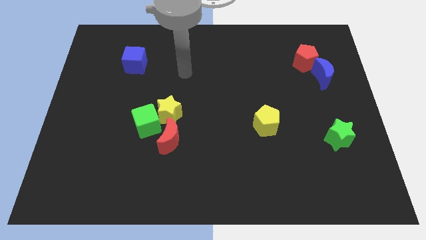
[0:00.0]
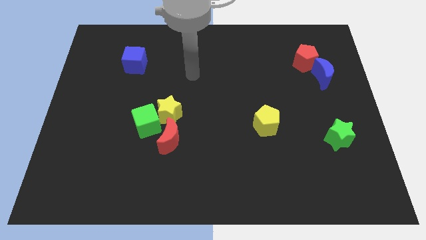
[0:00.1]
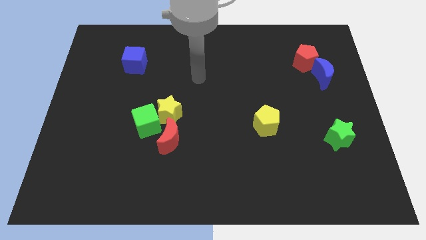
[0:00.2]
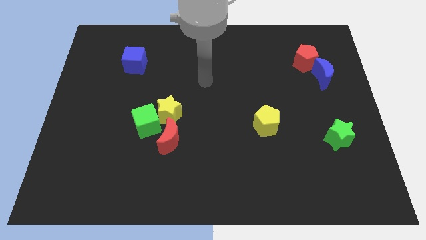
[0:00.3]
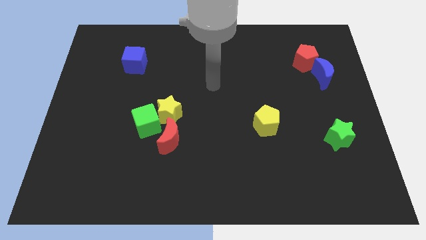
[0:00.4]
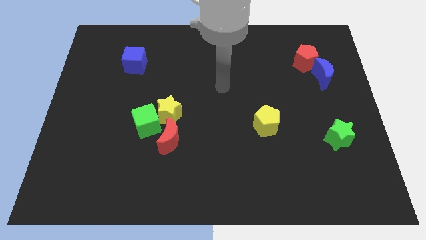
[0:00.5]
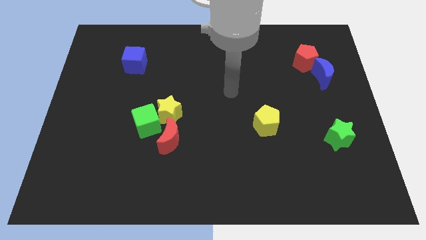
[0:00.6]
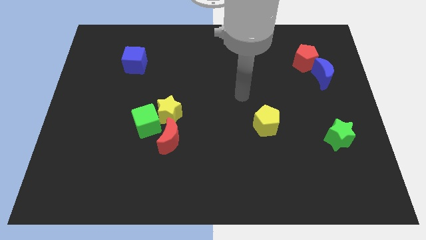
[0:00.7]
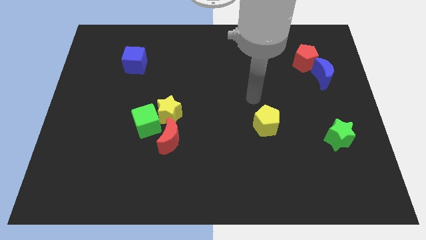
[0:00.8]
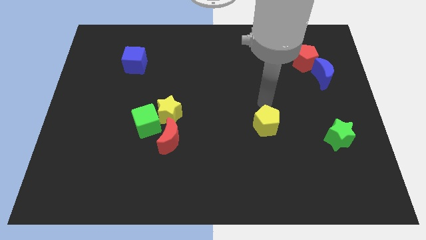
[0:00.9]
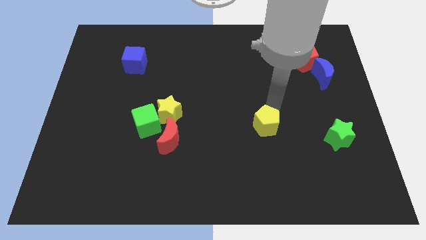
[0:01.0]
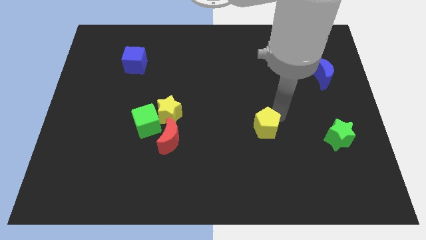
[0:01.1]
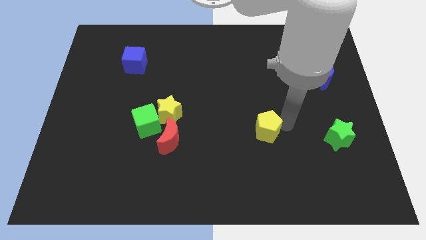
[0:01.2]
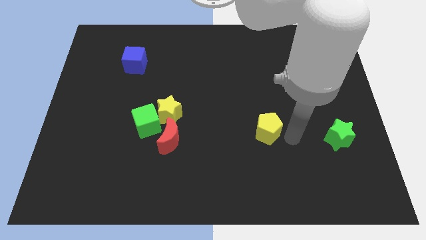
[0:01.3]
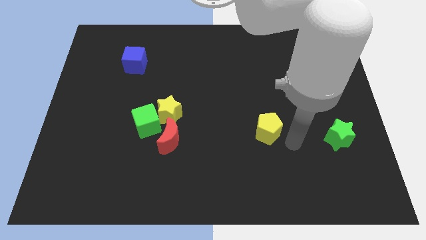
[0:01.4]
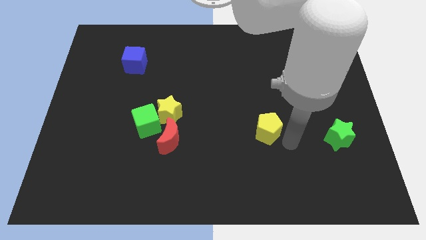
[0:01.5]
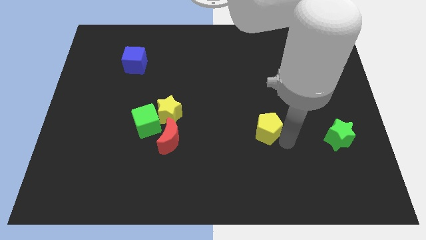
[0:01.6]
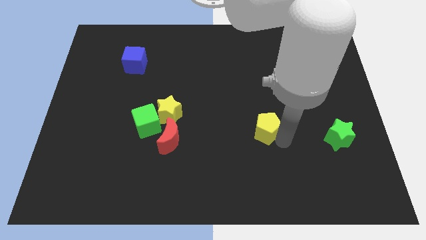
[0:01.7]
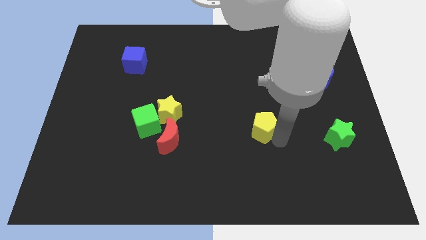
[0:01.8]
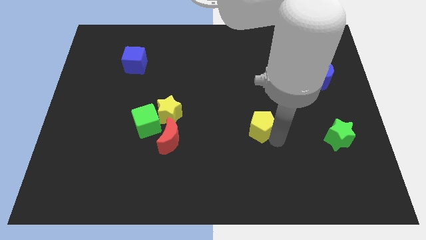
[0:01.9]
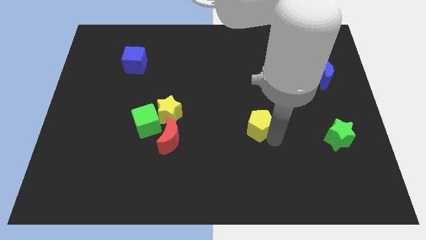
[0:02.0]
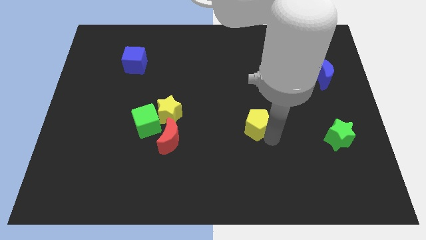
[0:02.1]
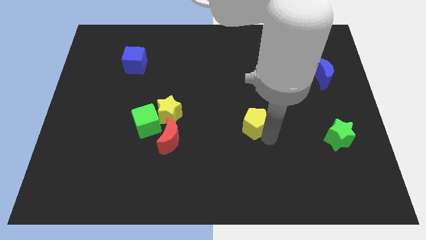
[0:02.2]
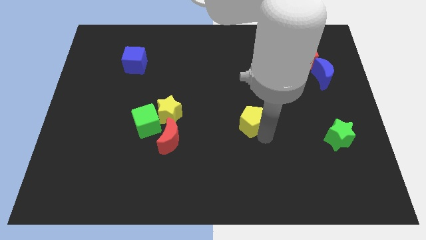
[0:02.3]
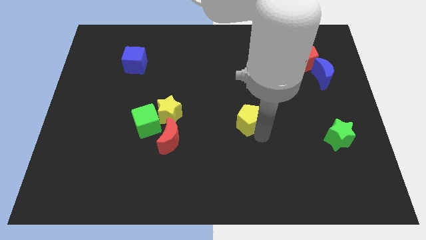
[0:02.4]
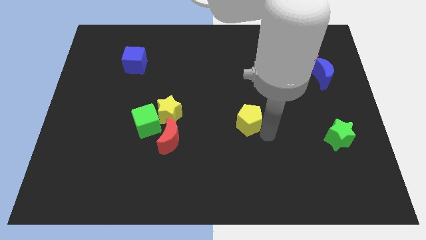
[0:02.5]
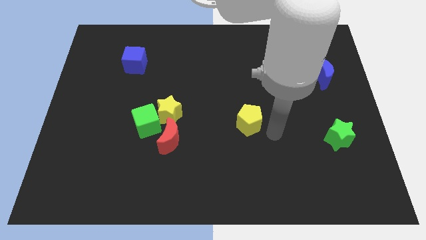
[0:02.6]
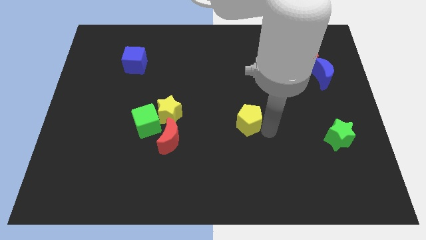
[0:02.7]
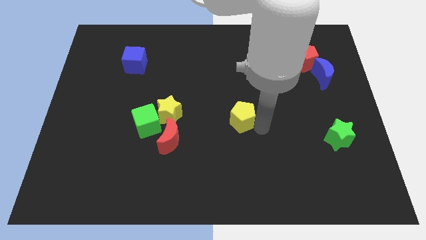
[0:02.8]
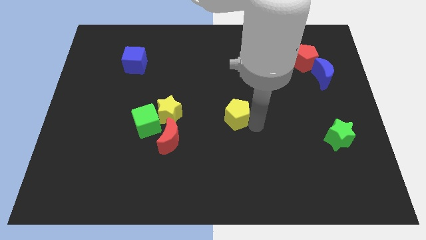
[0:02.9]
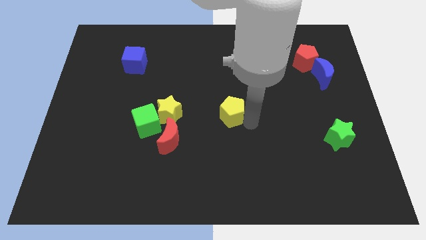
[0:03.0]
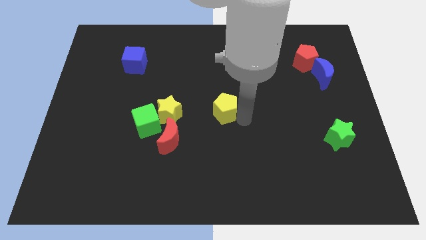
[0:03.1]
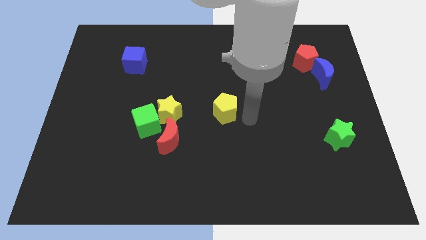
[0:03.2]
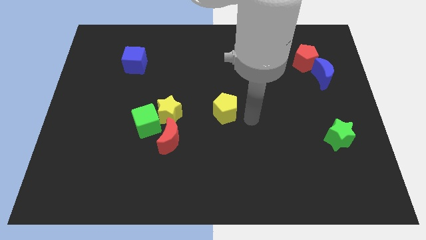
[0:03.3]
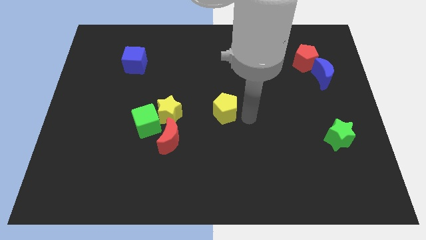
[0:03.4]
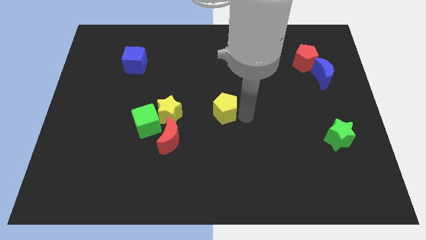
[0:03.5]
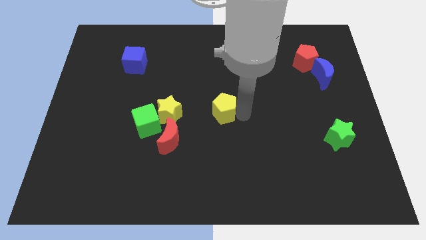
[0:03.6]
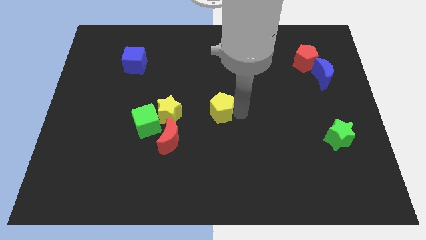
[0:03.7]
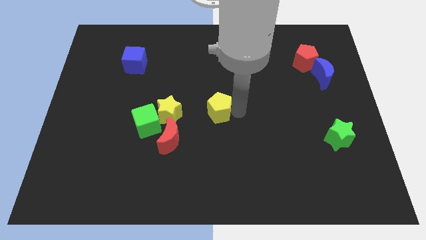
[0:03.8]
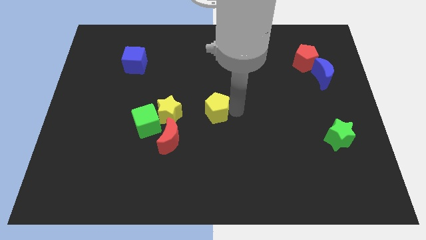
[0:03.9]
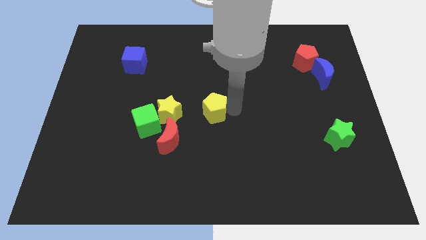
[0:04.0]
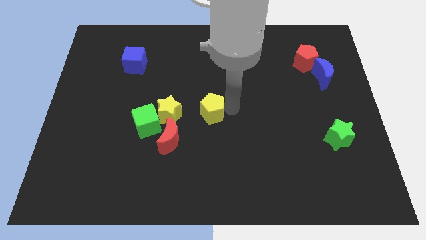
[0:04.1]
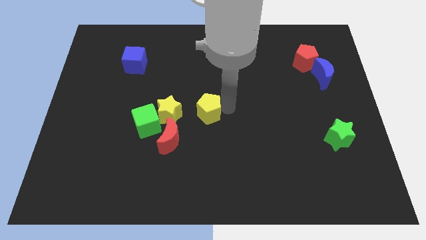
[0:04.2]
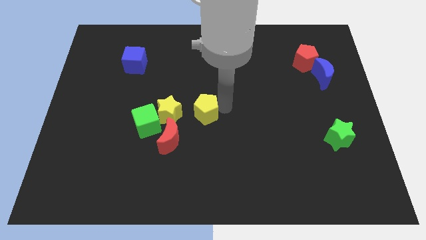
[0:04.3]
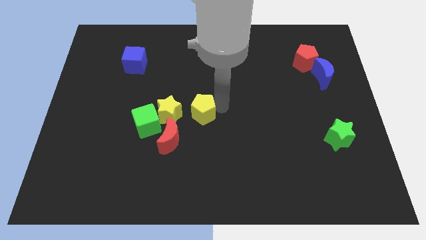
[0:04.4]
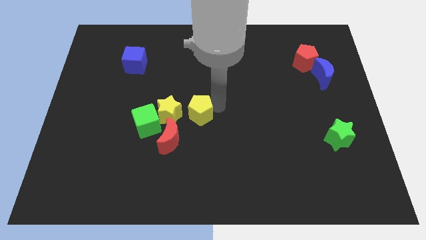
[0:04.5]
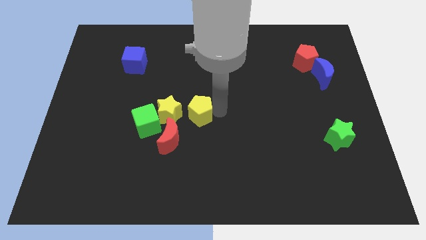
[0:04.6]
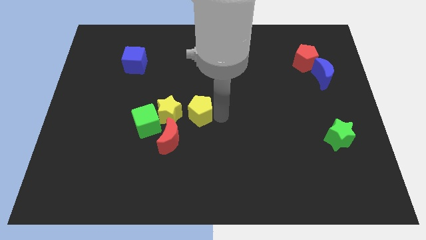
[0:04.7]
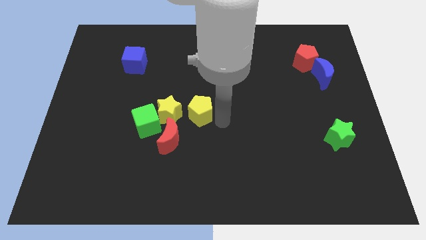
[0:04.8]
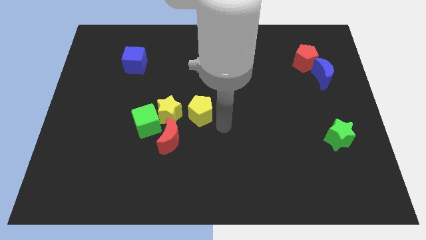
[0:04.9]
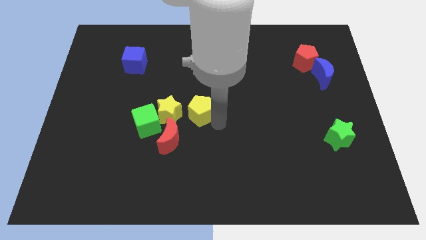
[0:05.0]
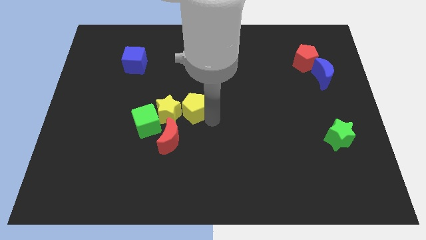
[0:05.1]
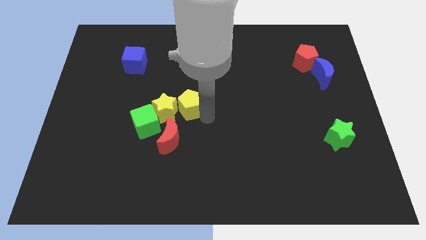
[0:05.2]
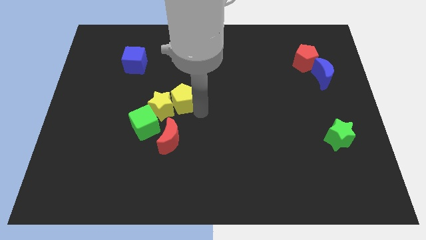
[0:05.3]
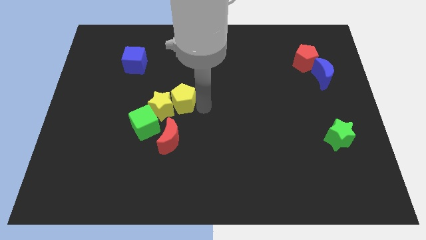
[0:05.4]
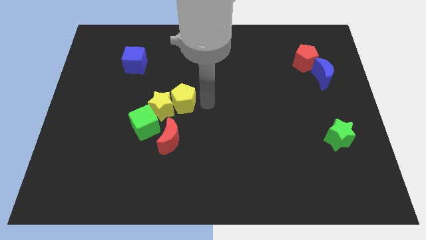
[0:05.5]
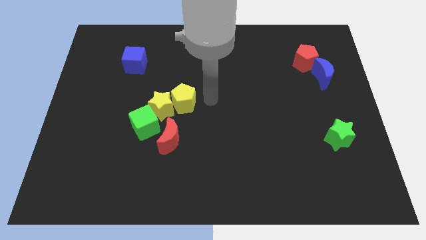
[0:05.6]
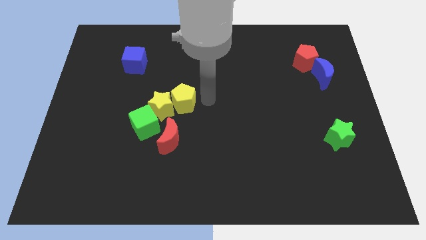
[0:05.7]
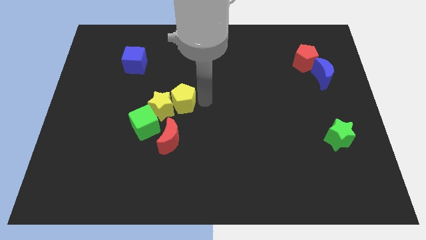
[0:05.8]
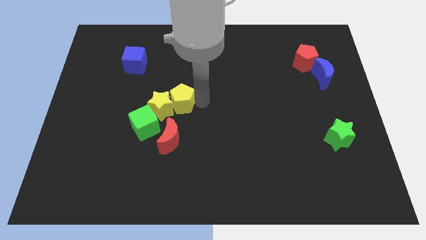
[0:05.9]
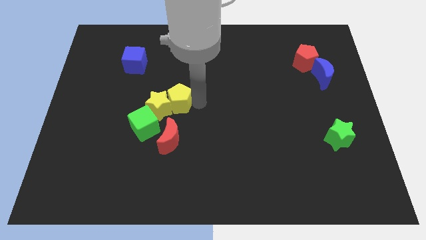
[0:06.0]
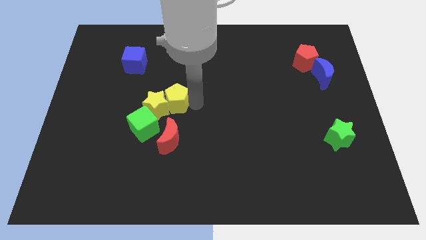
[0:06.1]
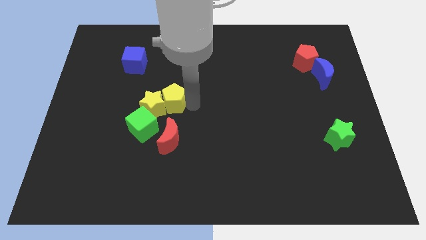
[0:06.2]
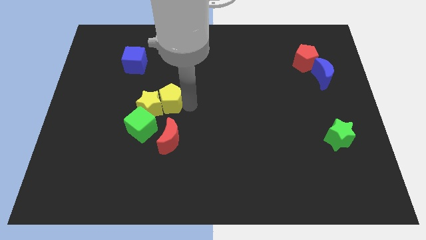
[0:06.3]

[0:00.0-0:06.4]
move the yellow pentagon to the left

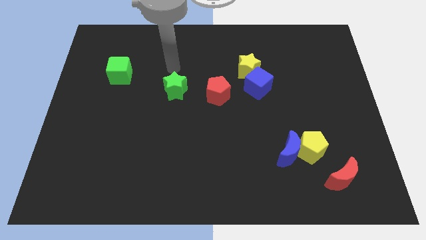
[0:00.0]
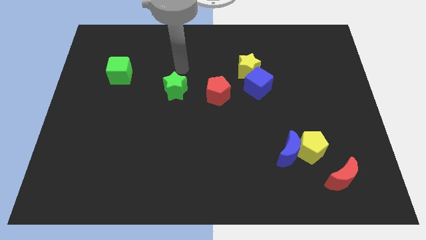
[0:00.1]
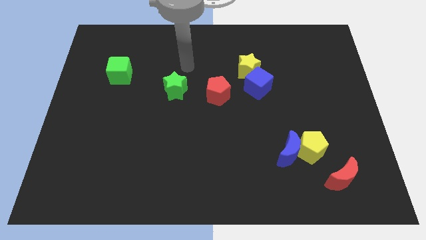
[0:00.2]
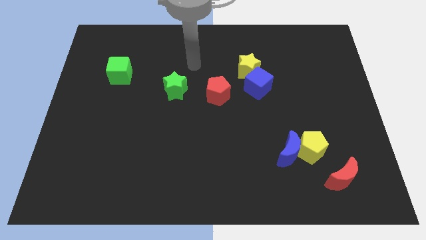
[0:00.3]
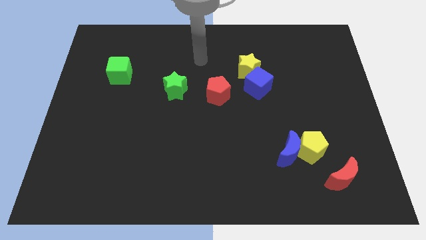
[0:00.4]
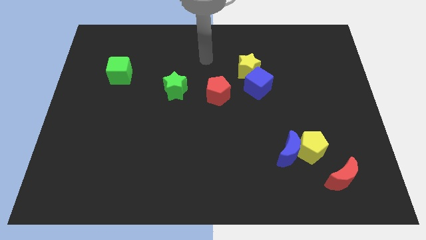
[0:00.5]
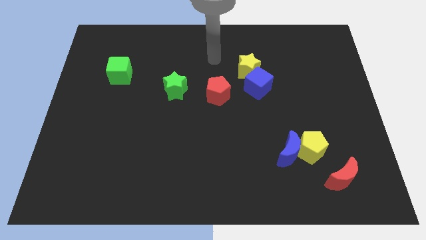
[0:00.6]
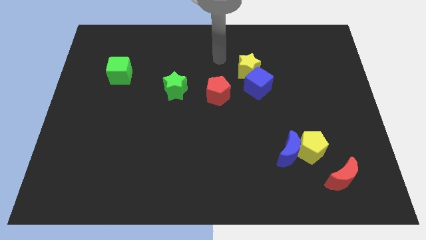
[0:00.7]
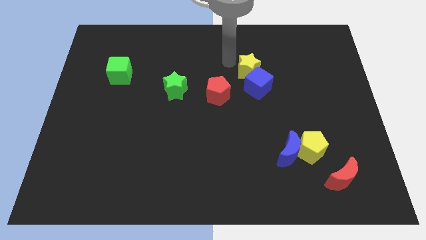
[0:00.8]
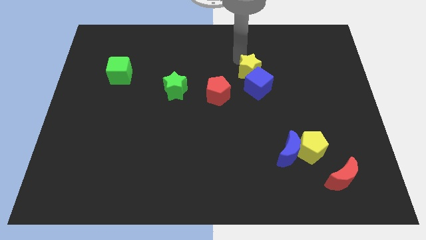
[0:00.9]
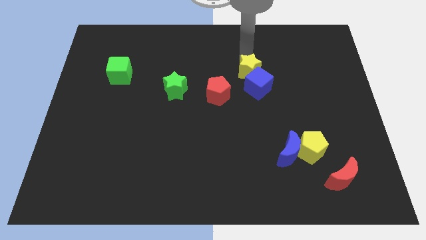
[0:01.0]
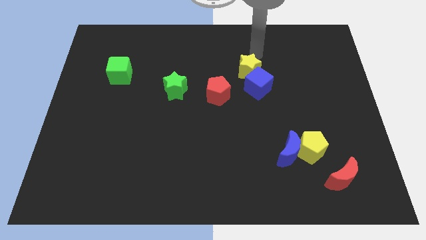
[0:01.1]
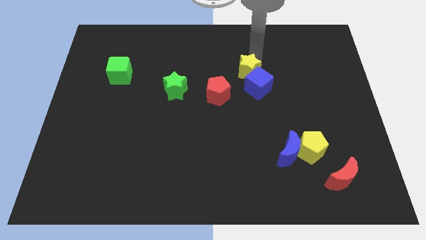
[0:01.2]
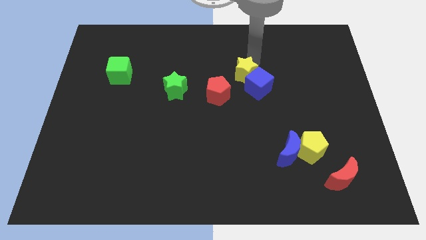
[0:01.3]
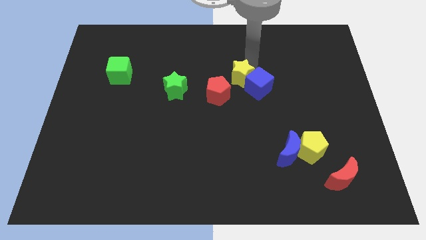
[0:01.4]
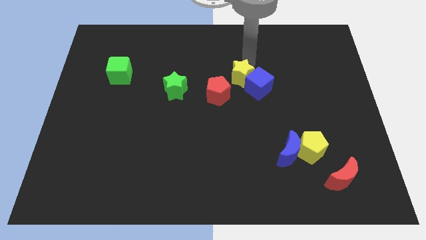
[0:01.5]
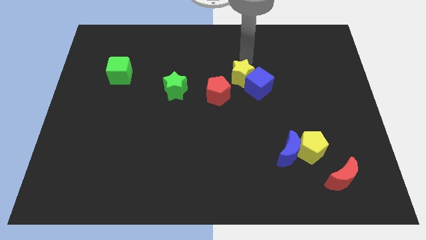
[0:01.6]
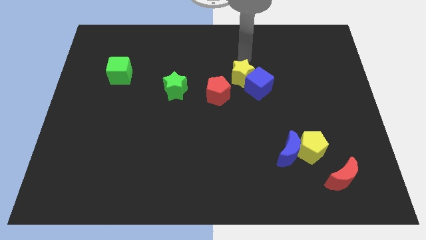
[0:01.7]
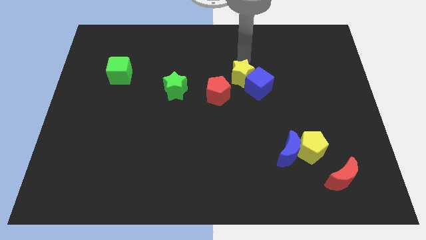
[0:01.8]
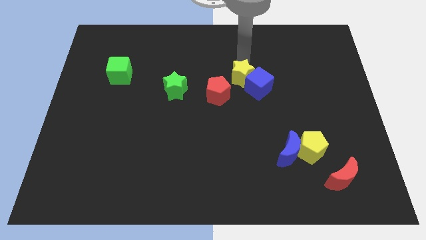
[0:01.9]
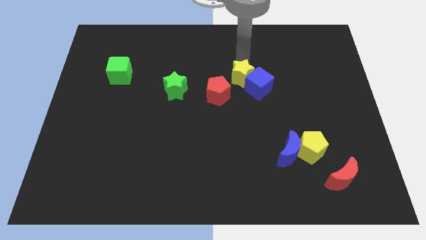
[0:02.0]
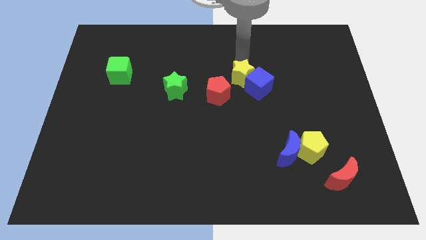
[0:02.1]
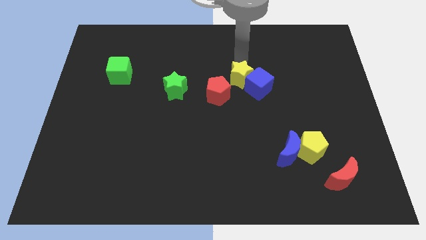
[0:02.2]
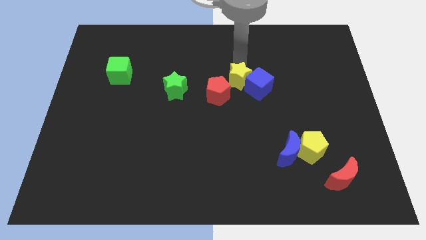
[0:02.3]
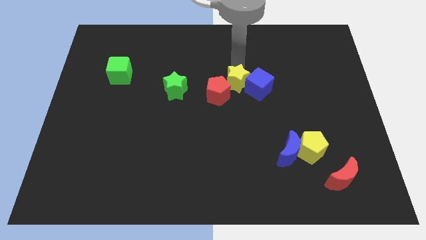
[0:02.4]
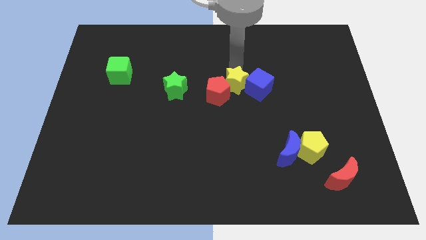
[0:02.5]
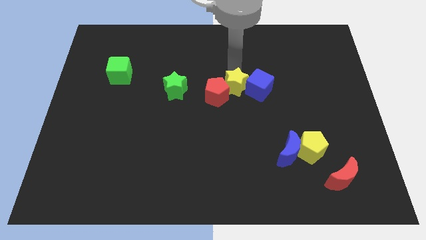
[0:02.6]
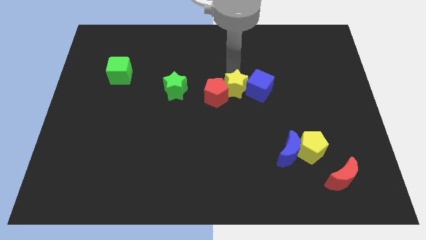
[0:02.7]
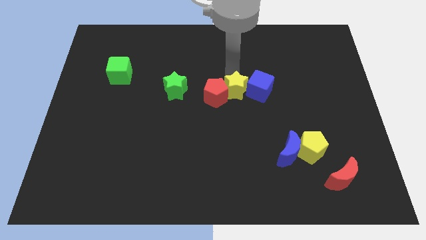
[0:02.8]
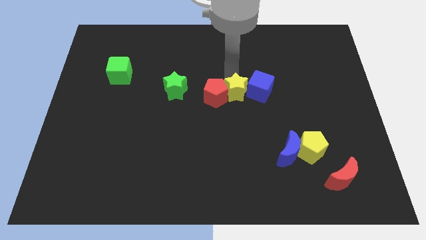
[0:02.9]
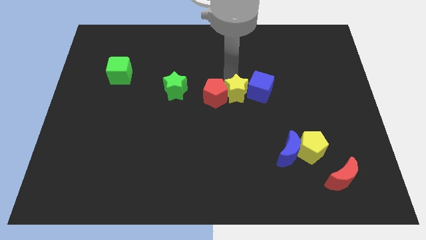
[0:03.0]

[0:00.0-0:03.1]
push the yellow star downwards slightly
